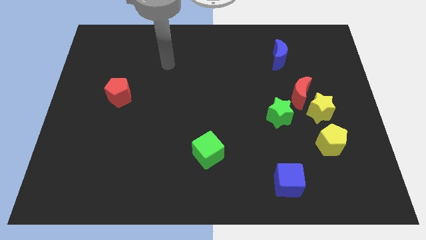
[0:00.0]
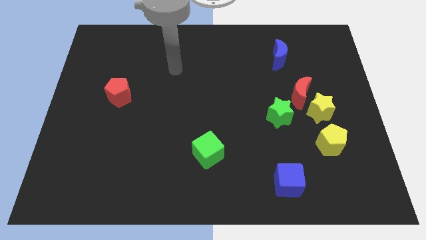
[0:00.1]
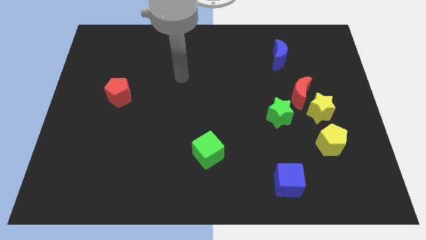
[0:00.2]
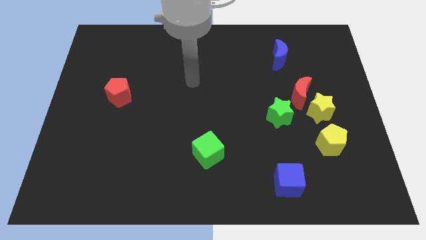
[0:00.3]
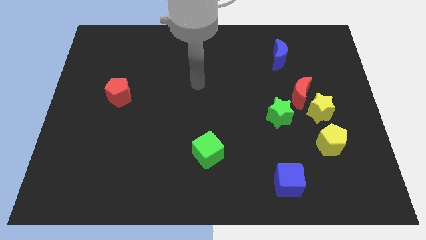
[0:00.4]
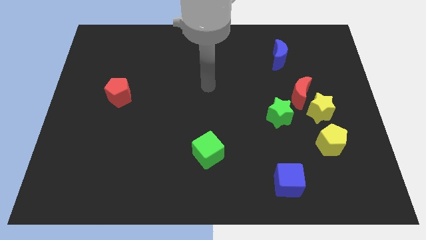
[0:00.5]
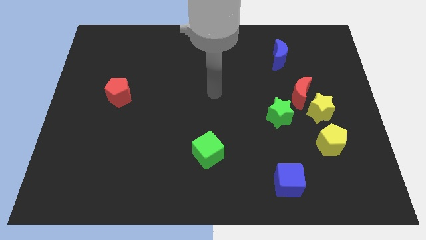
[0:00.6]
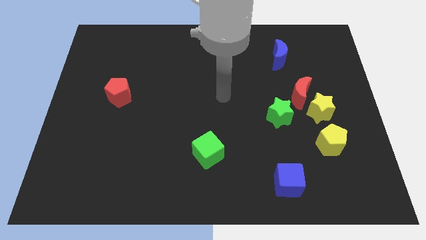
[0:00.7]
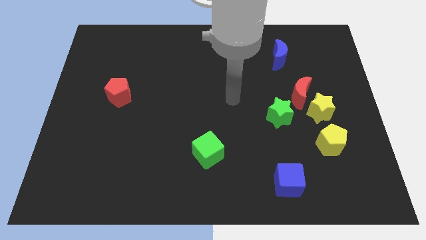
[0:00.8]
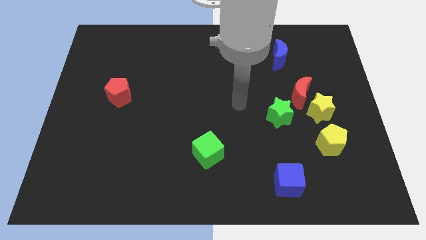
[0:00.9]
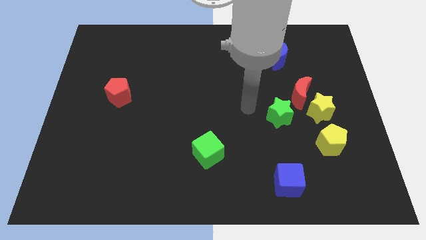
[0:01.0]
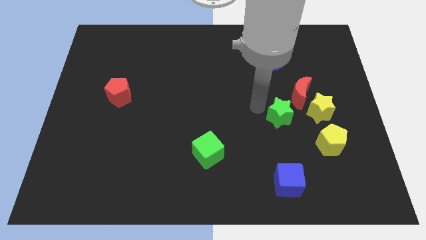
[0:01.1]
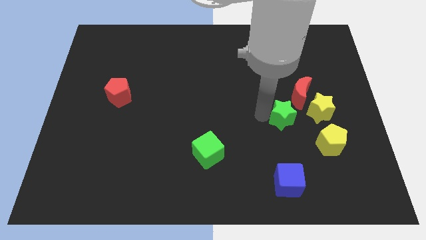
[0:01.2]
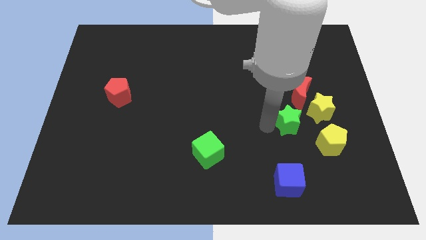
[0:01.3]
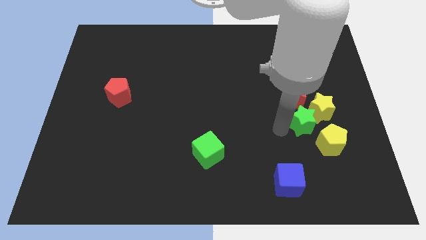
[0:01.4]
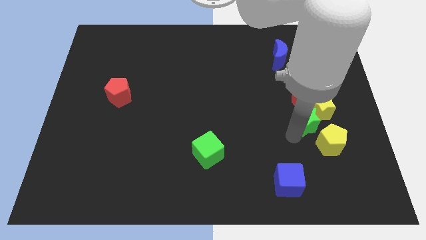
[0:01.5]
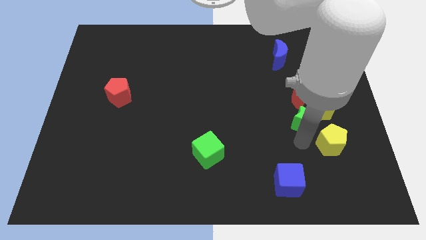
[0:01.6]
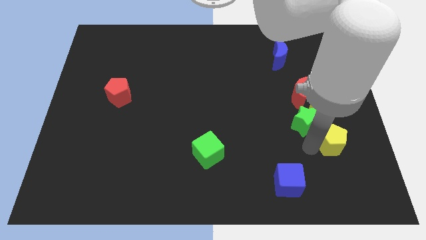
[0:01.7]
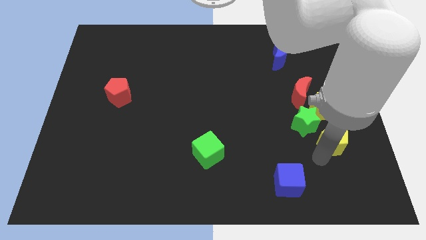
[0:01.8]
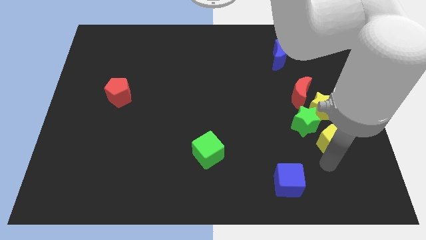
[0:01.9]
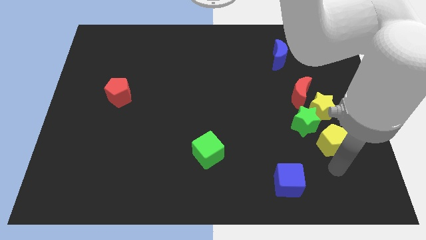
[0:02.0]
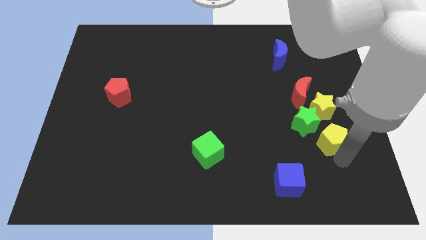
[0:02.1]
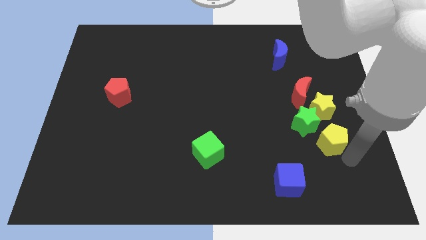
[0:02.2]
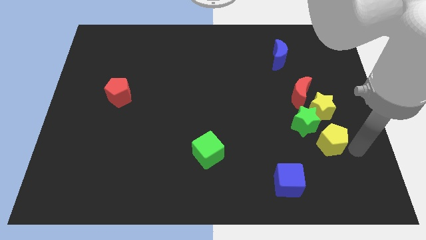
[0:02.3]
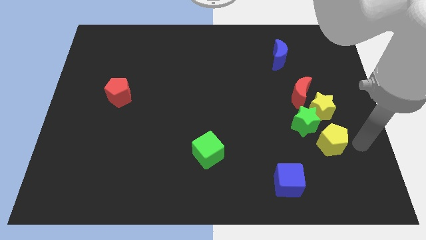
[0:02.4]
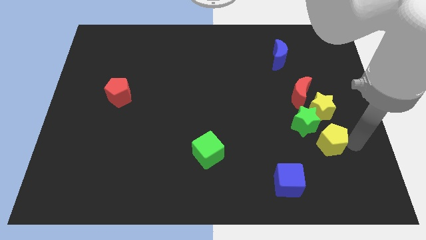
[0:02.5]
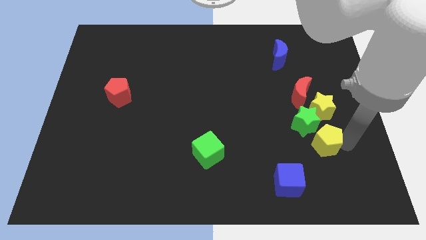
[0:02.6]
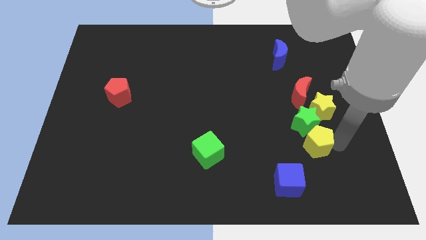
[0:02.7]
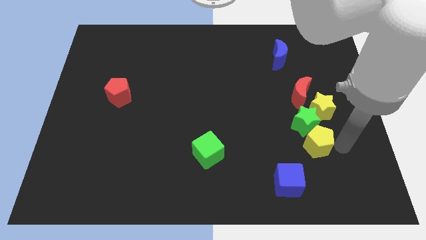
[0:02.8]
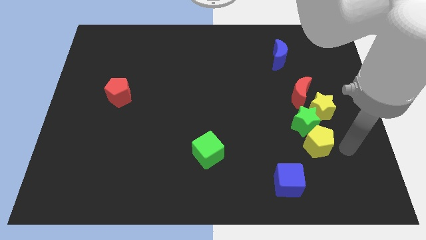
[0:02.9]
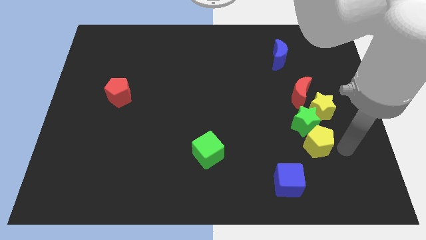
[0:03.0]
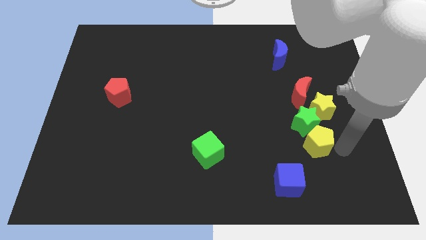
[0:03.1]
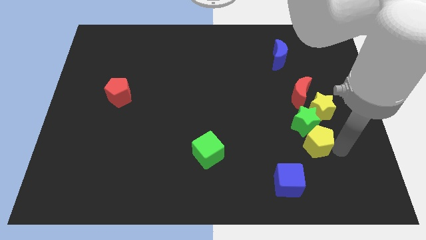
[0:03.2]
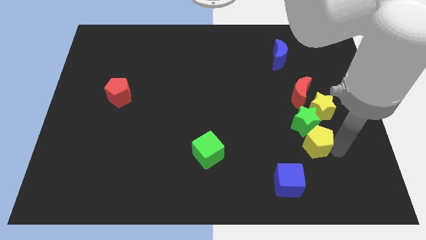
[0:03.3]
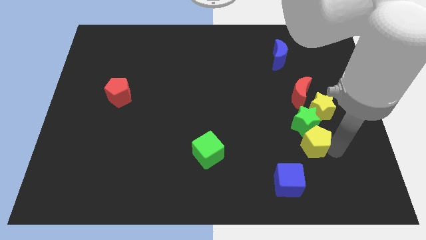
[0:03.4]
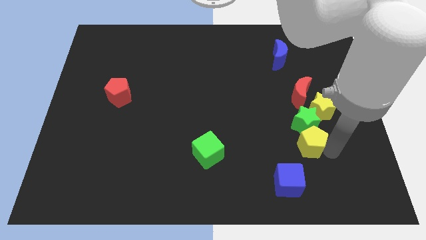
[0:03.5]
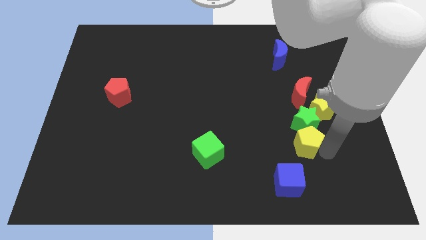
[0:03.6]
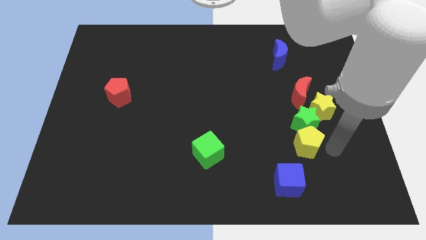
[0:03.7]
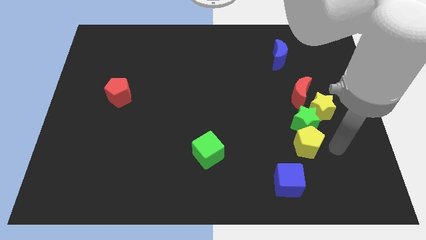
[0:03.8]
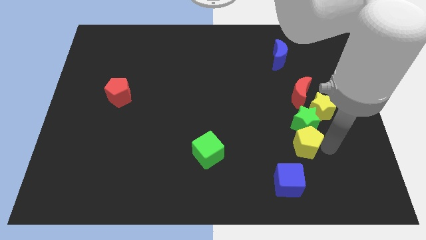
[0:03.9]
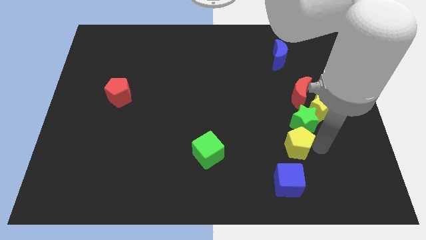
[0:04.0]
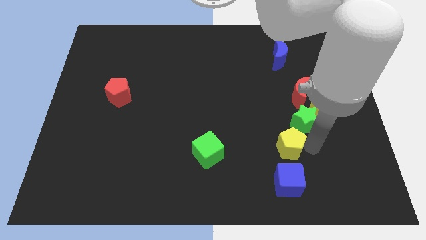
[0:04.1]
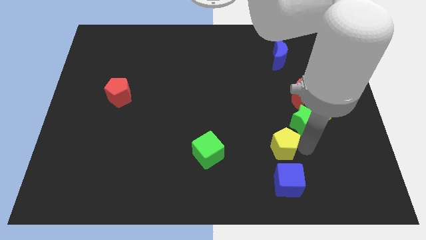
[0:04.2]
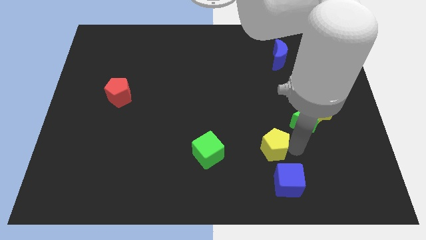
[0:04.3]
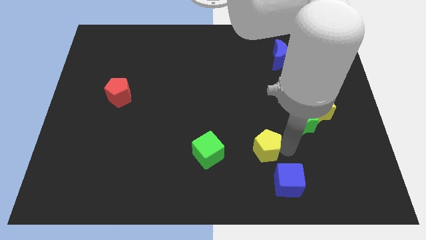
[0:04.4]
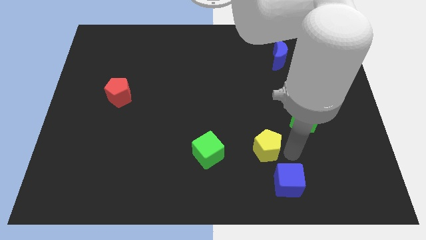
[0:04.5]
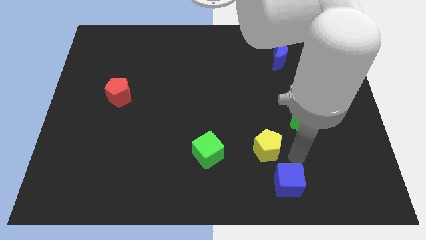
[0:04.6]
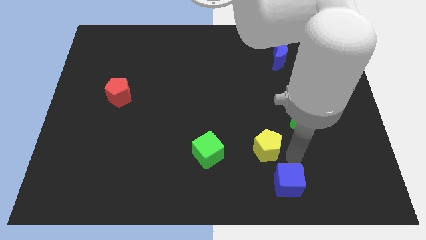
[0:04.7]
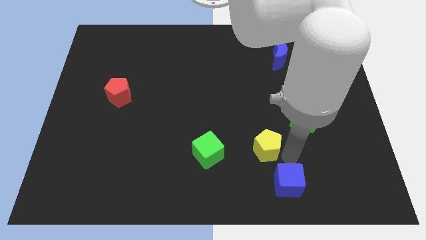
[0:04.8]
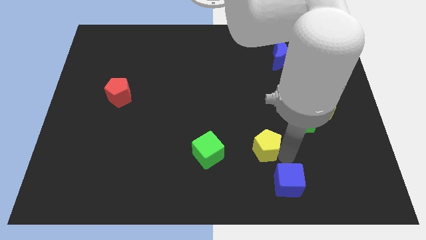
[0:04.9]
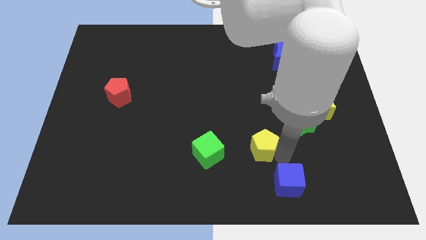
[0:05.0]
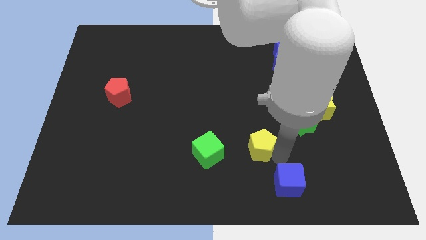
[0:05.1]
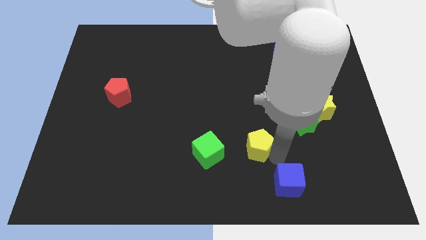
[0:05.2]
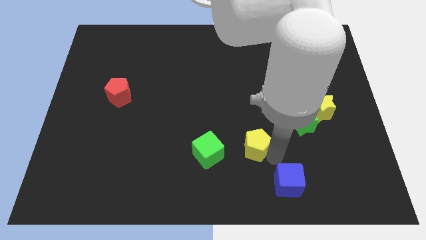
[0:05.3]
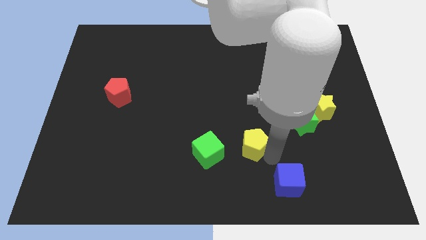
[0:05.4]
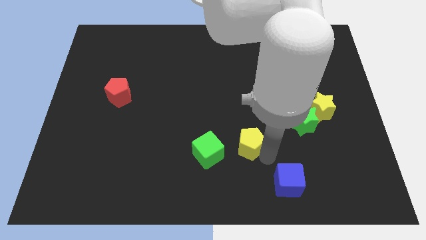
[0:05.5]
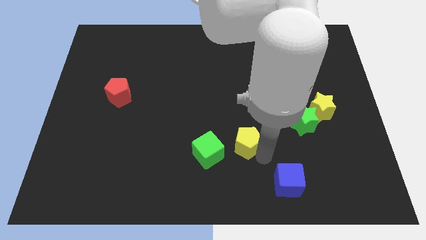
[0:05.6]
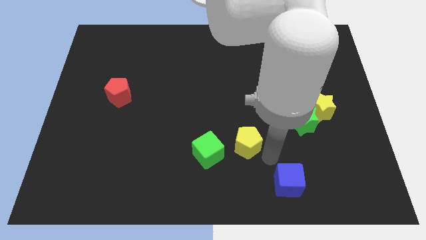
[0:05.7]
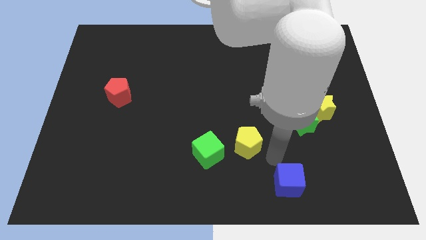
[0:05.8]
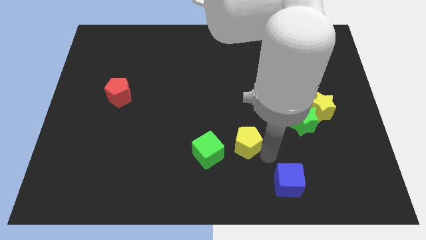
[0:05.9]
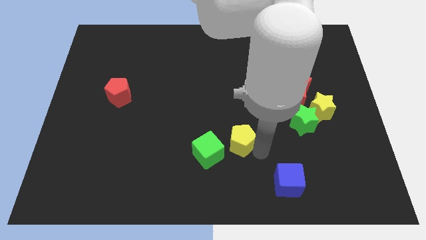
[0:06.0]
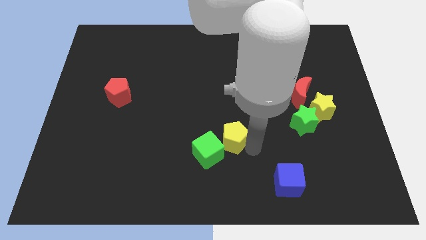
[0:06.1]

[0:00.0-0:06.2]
push the yellow pentagon left

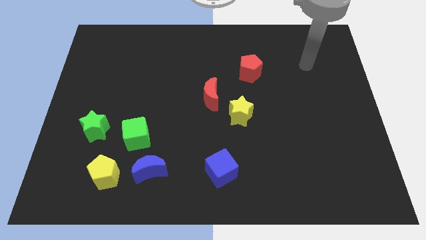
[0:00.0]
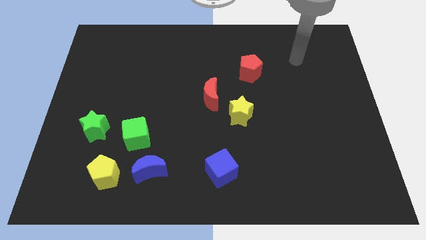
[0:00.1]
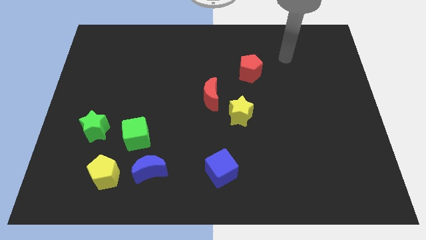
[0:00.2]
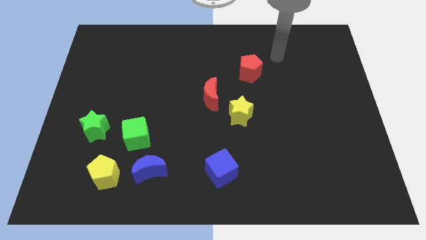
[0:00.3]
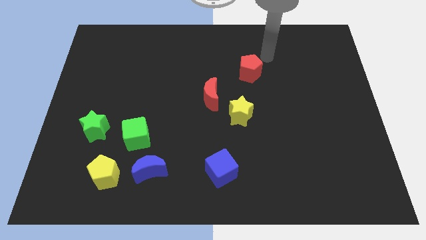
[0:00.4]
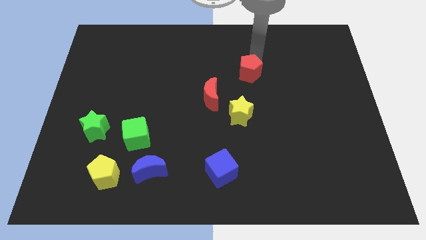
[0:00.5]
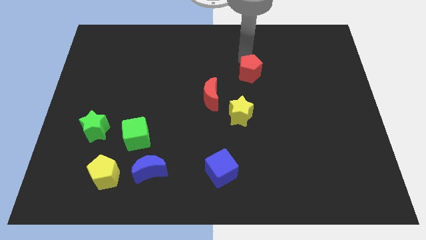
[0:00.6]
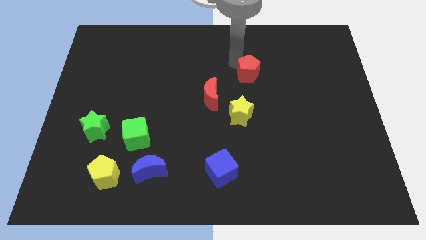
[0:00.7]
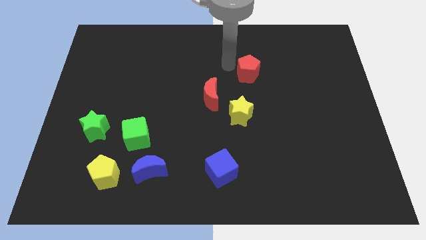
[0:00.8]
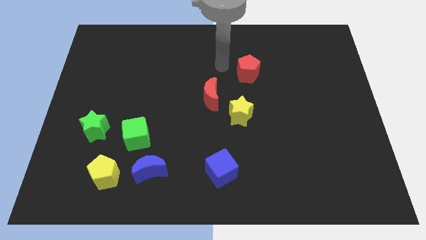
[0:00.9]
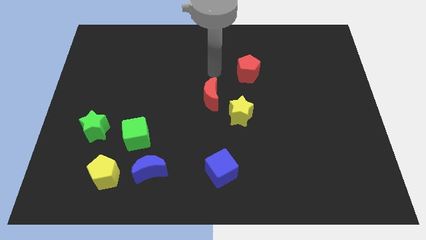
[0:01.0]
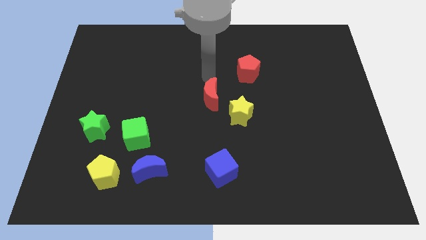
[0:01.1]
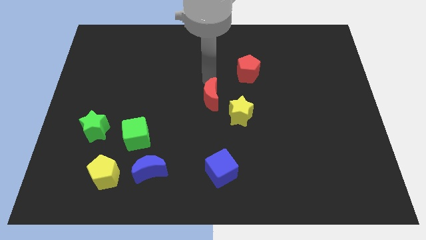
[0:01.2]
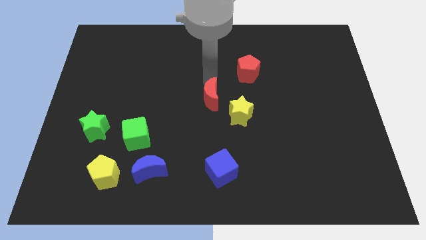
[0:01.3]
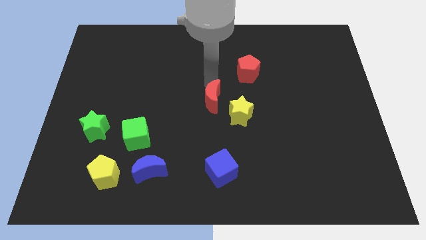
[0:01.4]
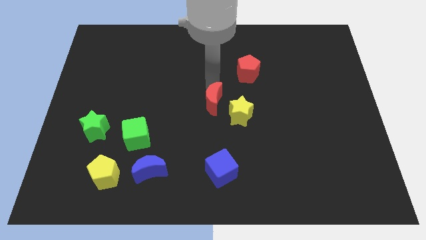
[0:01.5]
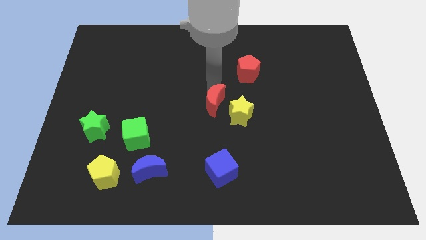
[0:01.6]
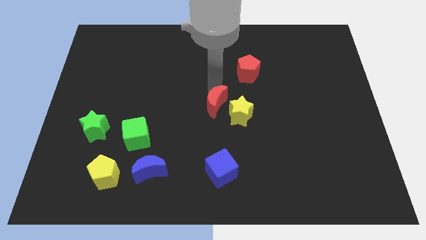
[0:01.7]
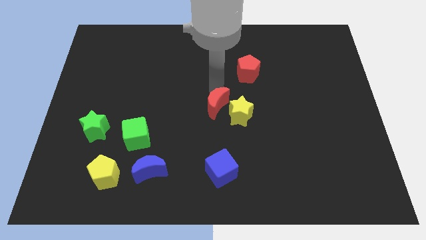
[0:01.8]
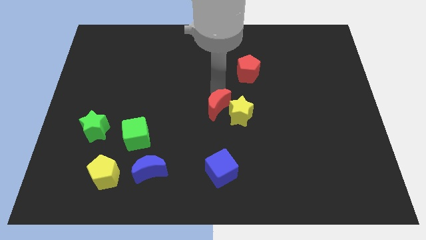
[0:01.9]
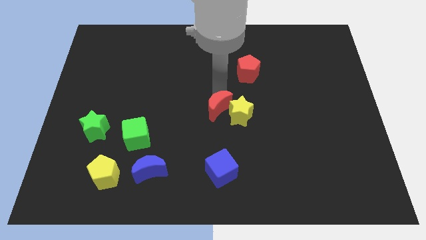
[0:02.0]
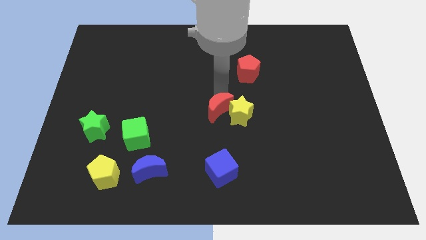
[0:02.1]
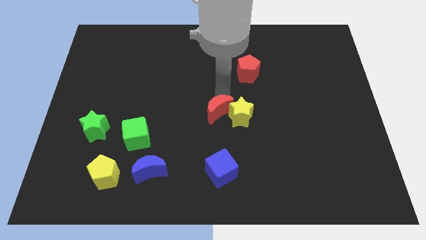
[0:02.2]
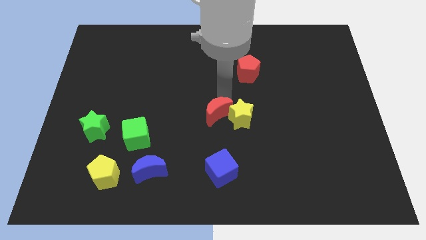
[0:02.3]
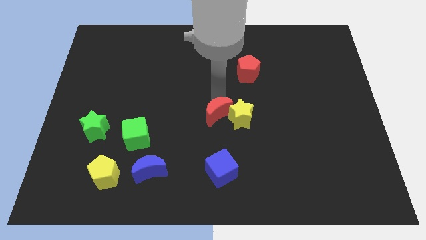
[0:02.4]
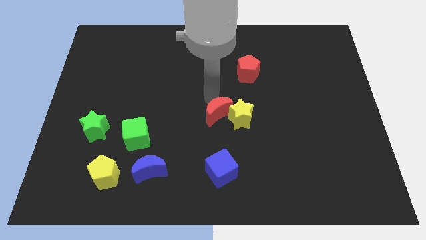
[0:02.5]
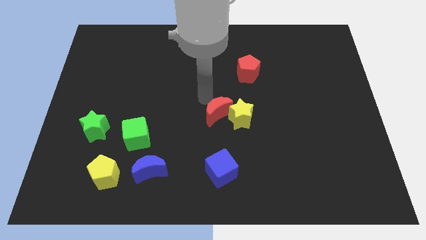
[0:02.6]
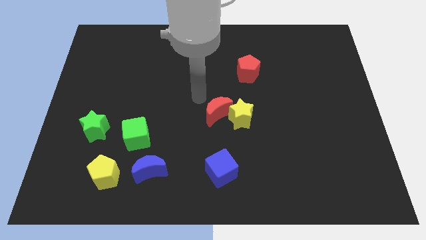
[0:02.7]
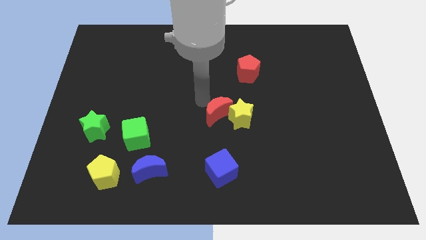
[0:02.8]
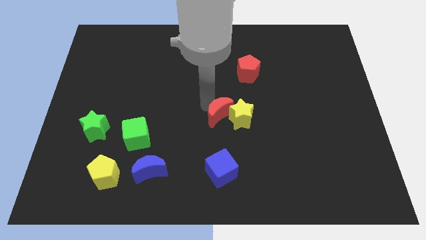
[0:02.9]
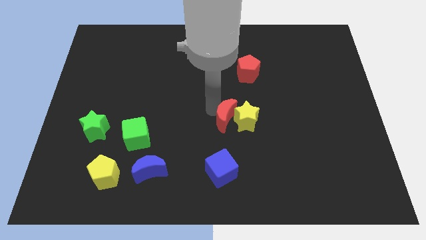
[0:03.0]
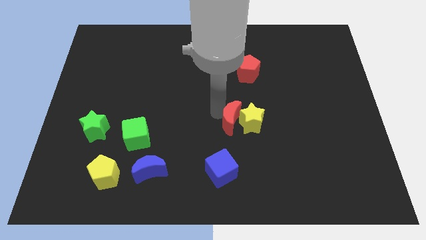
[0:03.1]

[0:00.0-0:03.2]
slide the red moon a little bit down and then to the right
